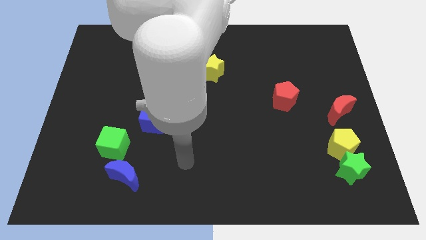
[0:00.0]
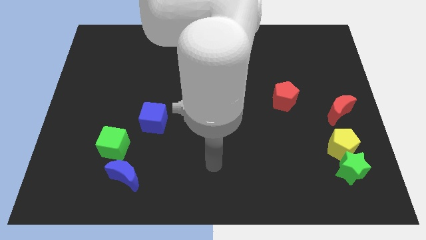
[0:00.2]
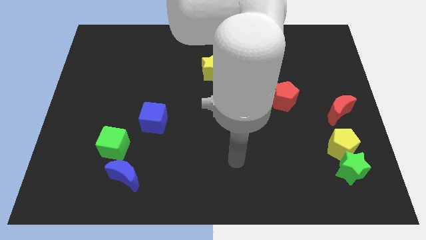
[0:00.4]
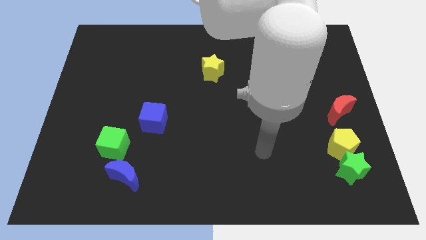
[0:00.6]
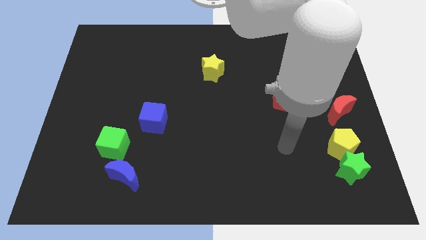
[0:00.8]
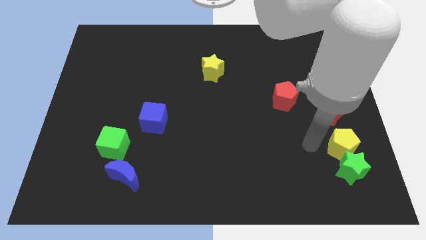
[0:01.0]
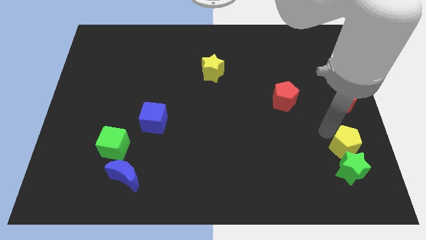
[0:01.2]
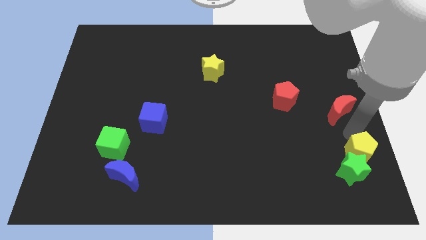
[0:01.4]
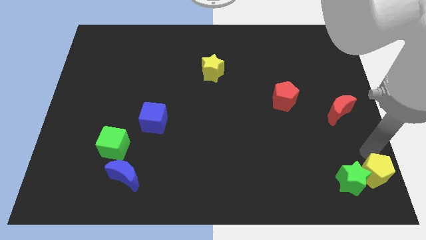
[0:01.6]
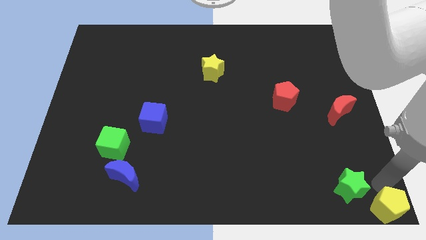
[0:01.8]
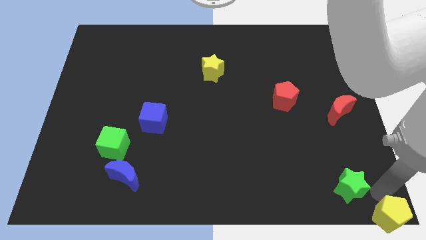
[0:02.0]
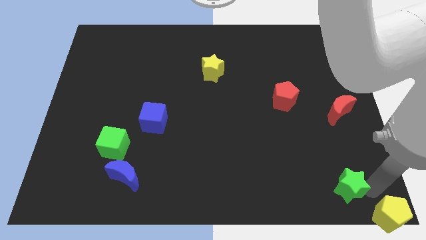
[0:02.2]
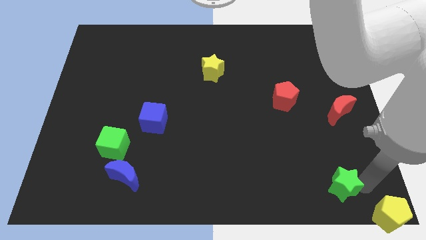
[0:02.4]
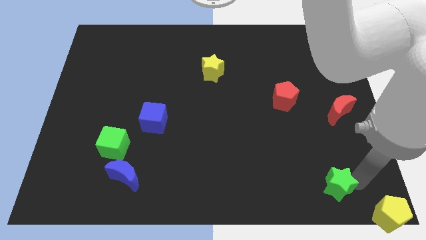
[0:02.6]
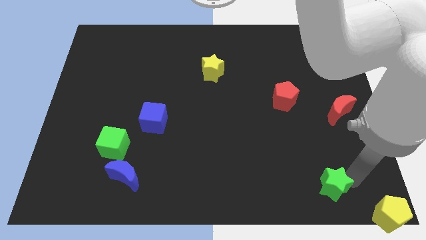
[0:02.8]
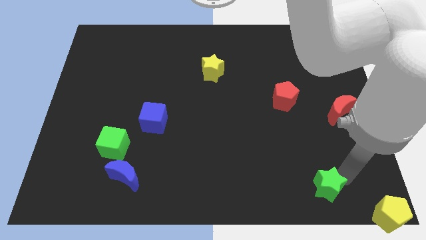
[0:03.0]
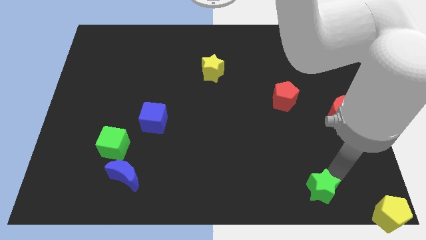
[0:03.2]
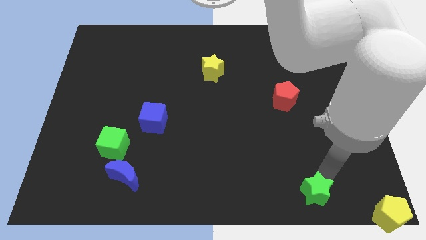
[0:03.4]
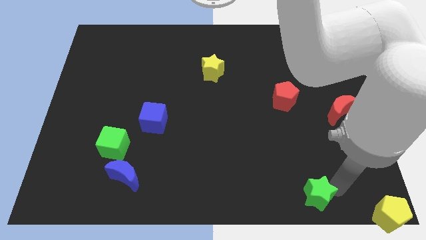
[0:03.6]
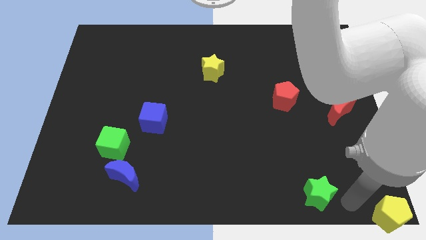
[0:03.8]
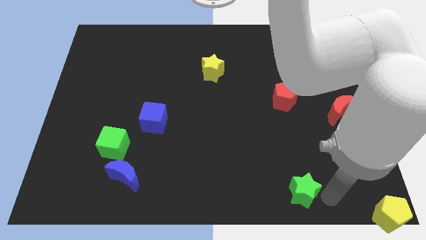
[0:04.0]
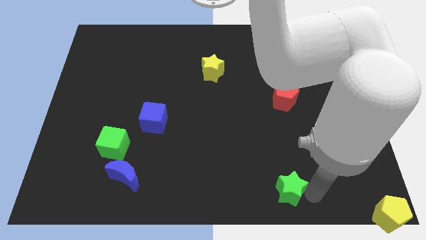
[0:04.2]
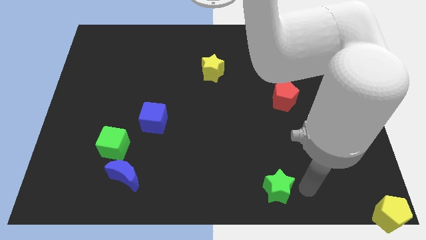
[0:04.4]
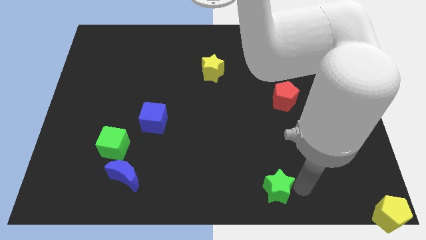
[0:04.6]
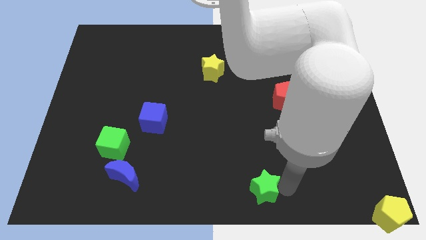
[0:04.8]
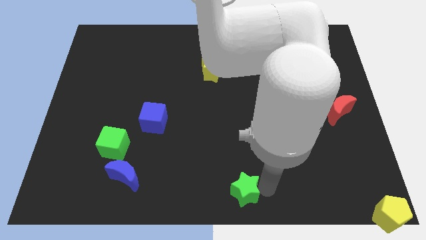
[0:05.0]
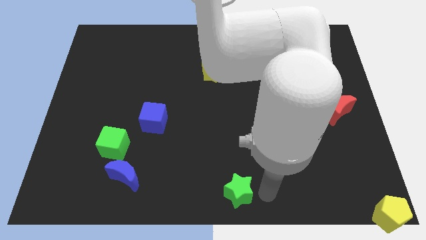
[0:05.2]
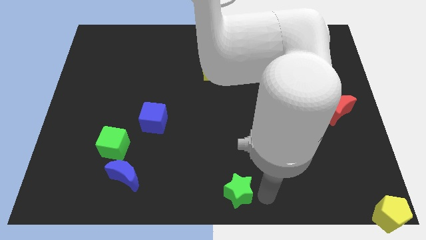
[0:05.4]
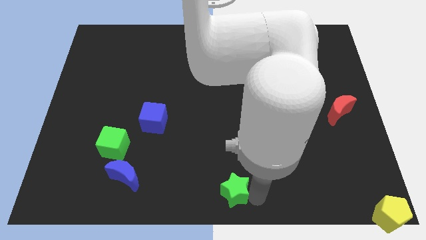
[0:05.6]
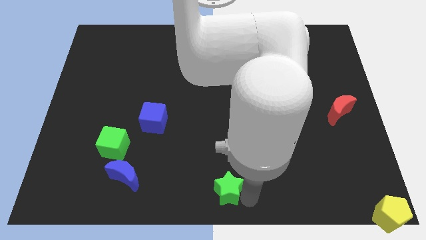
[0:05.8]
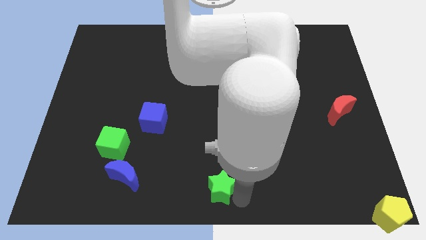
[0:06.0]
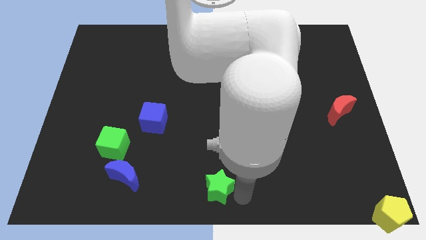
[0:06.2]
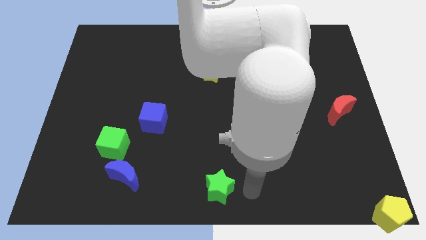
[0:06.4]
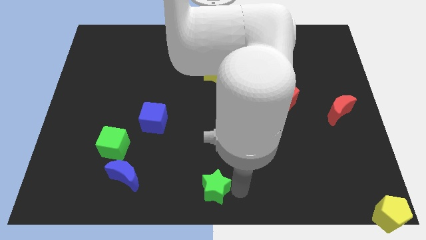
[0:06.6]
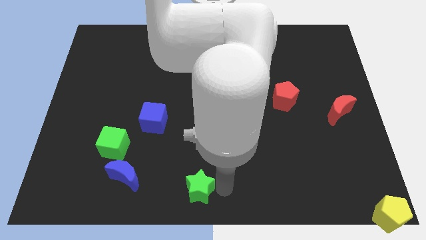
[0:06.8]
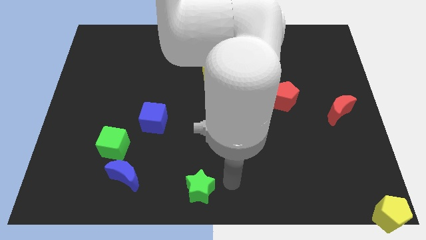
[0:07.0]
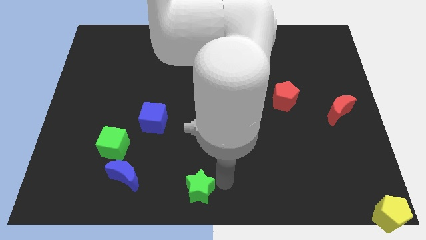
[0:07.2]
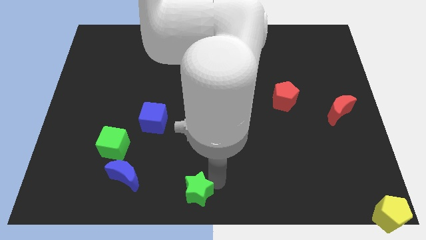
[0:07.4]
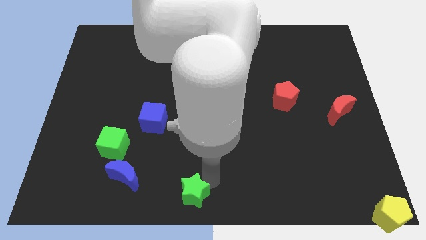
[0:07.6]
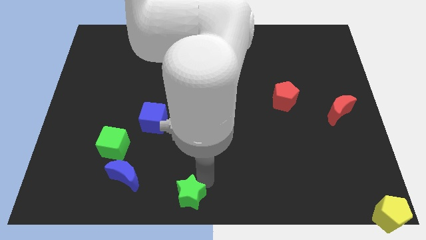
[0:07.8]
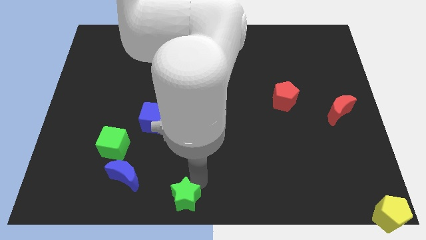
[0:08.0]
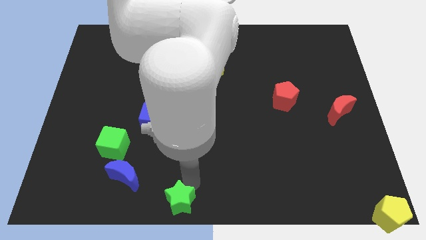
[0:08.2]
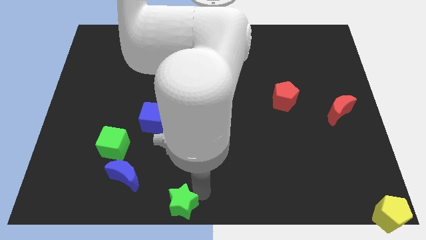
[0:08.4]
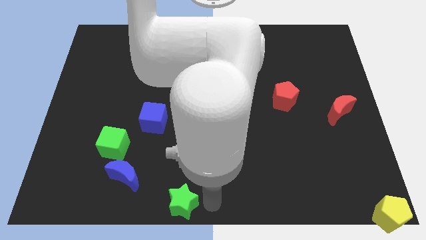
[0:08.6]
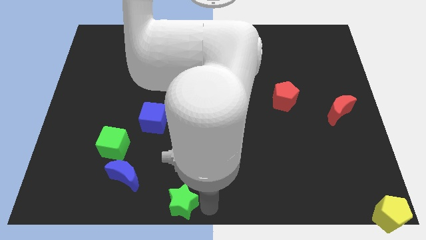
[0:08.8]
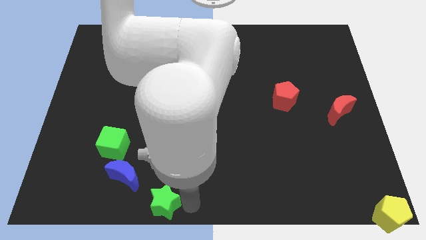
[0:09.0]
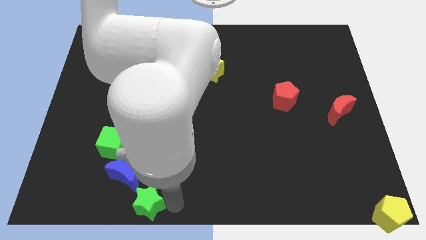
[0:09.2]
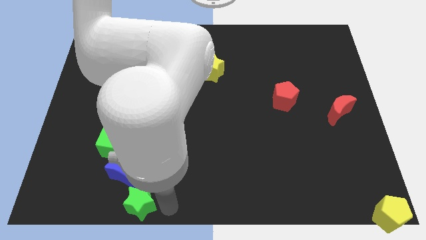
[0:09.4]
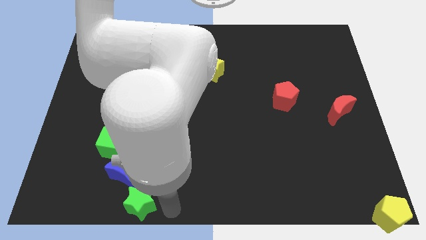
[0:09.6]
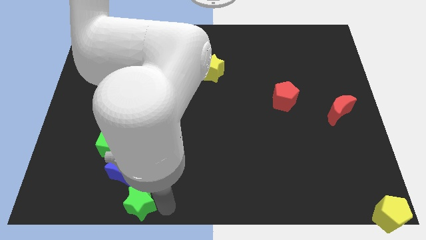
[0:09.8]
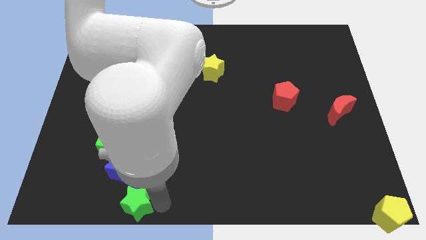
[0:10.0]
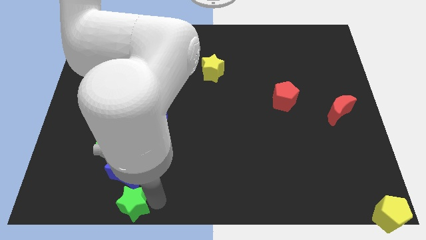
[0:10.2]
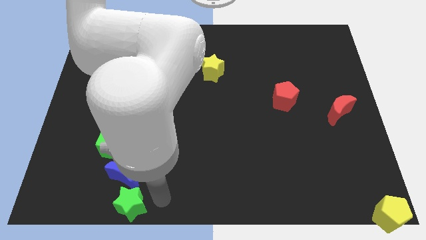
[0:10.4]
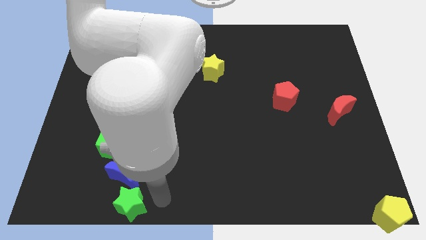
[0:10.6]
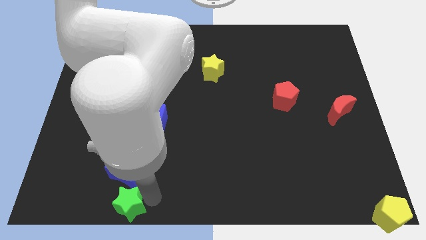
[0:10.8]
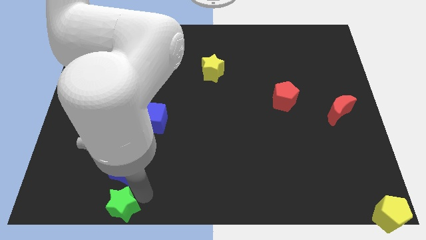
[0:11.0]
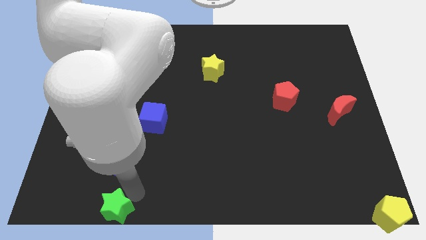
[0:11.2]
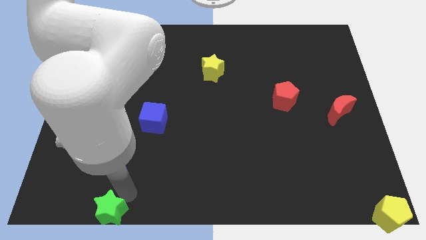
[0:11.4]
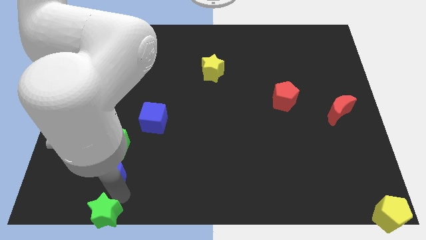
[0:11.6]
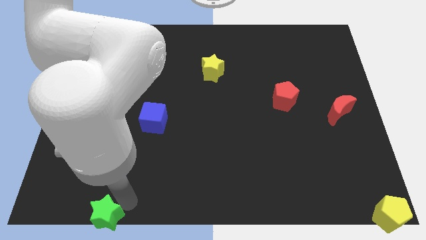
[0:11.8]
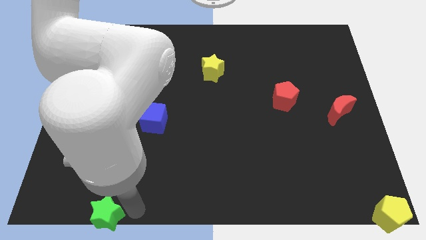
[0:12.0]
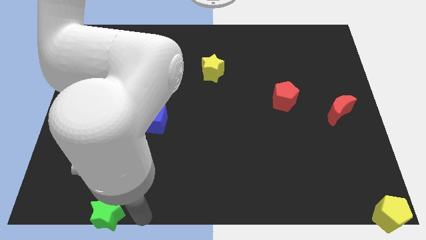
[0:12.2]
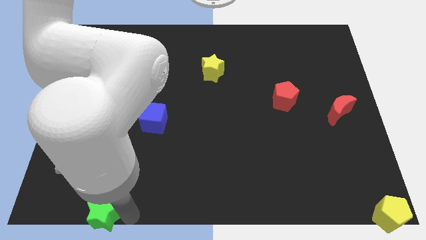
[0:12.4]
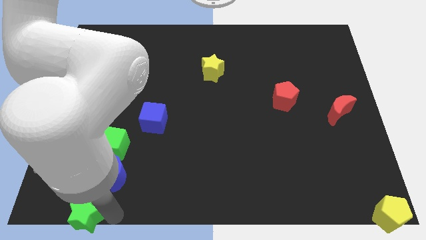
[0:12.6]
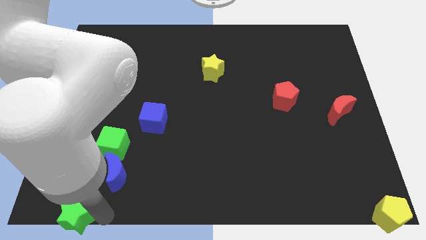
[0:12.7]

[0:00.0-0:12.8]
slide the green star to the bottom left corner
